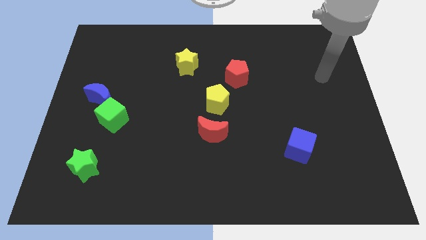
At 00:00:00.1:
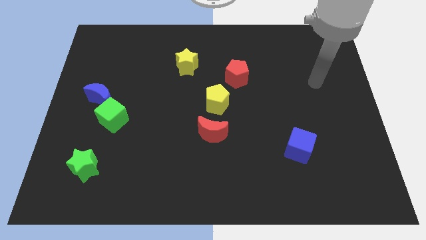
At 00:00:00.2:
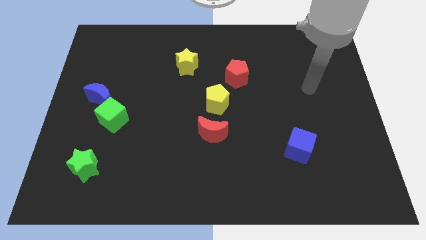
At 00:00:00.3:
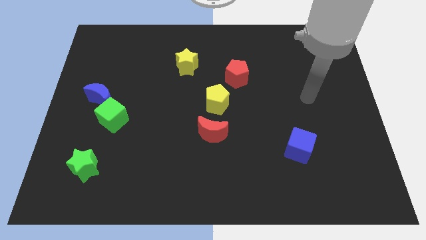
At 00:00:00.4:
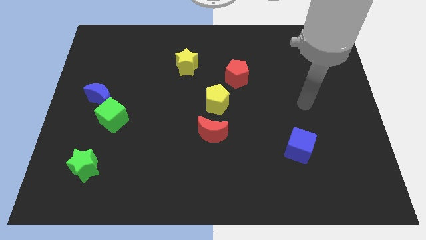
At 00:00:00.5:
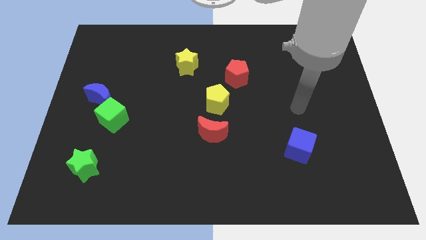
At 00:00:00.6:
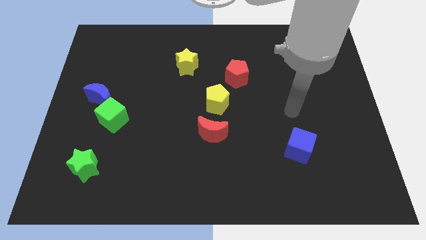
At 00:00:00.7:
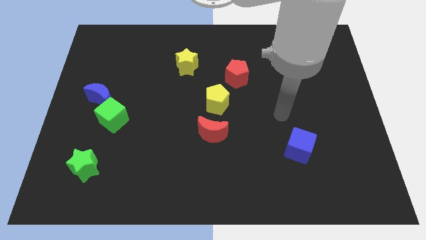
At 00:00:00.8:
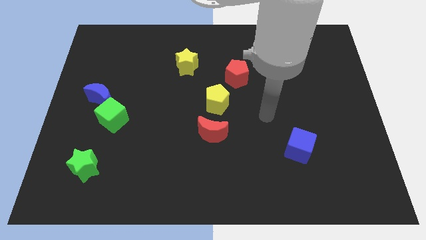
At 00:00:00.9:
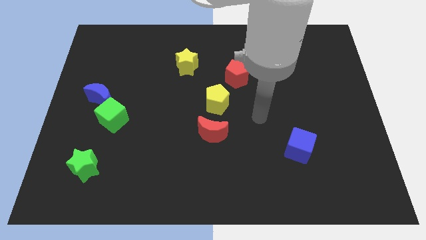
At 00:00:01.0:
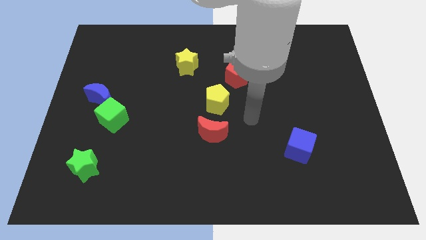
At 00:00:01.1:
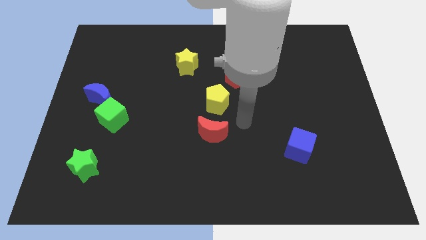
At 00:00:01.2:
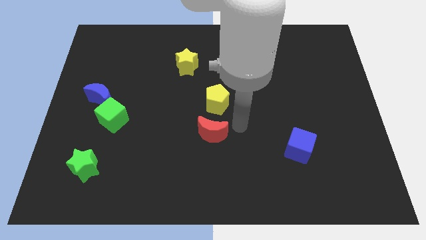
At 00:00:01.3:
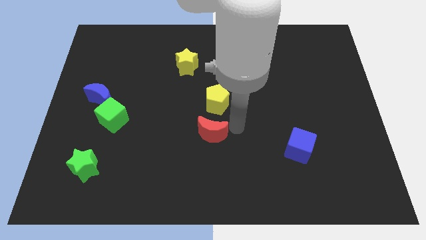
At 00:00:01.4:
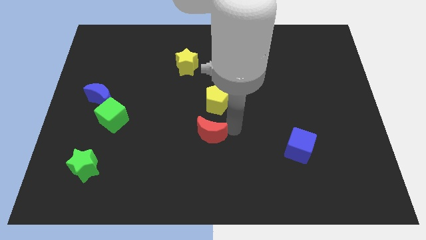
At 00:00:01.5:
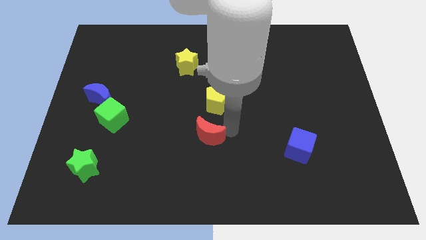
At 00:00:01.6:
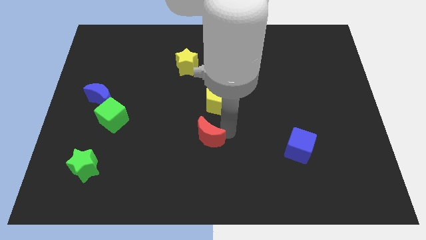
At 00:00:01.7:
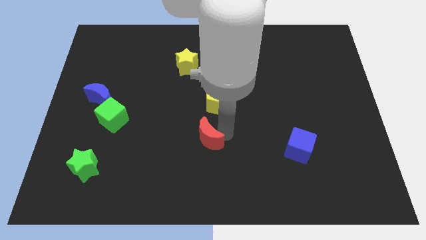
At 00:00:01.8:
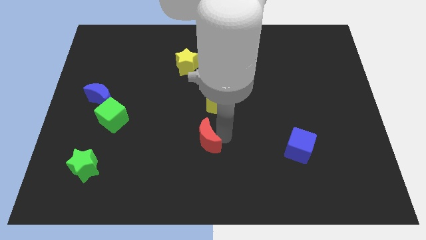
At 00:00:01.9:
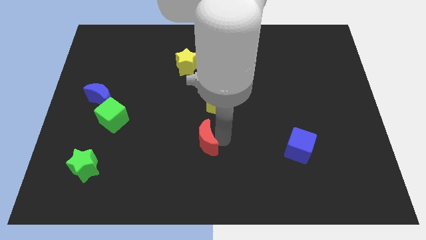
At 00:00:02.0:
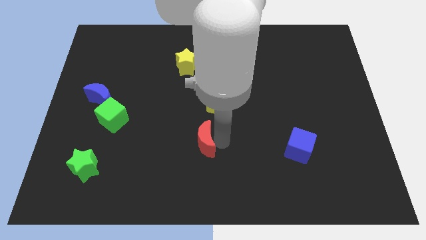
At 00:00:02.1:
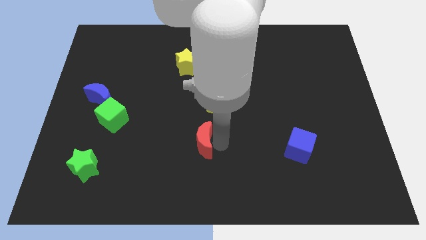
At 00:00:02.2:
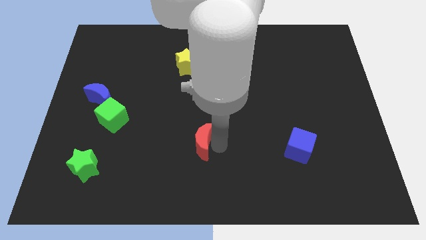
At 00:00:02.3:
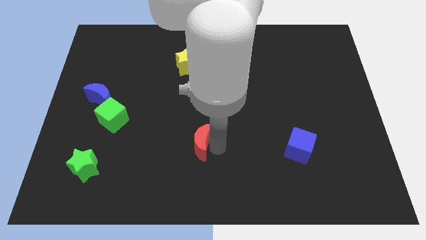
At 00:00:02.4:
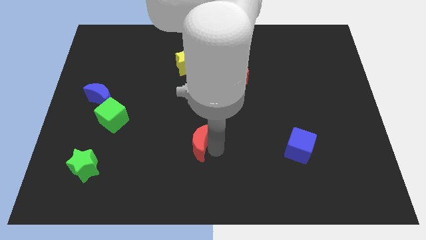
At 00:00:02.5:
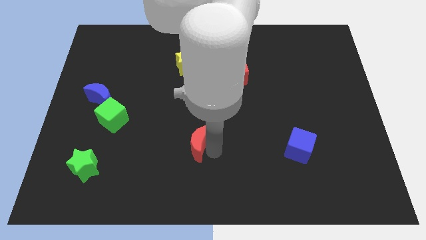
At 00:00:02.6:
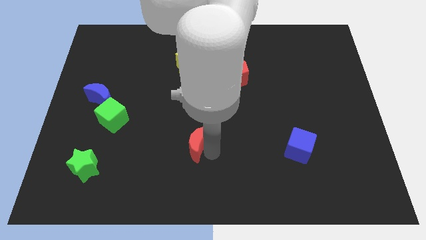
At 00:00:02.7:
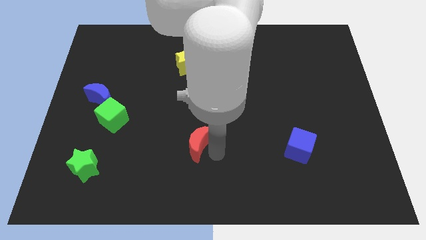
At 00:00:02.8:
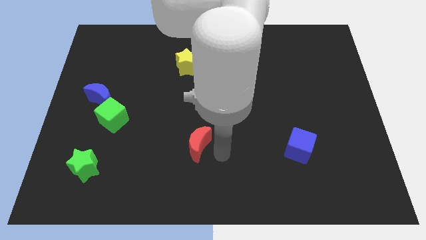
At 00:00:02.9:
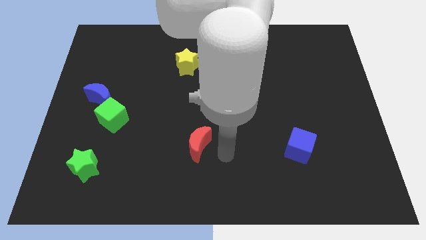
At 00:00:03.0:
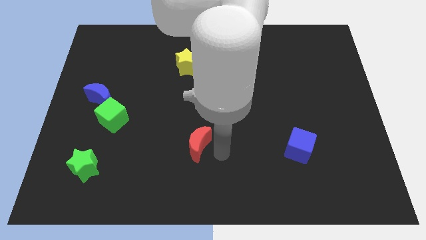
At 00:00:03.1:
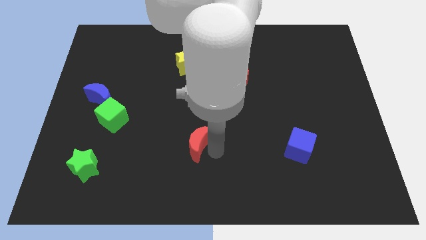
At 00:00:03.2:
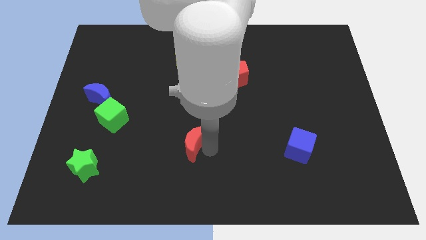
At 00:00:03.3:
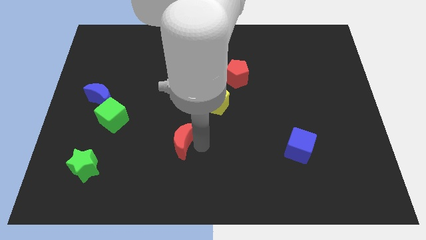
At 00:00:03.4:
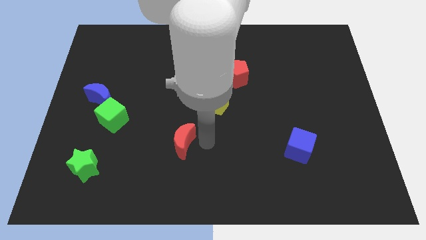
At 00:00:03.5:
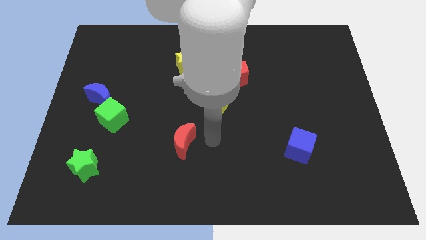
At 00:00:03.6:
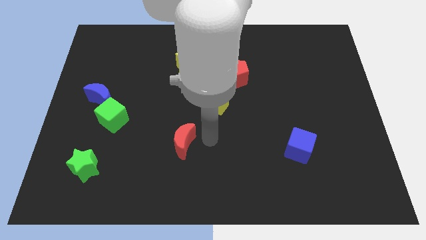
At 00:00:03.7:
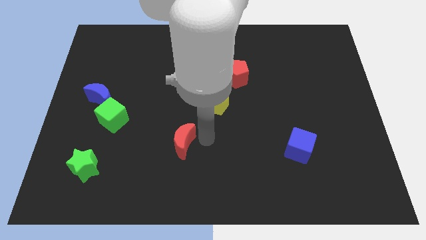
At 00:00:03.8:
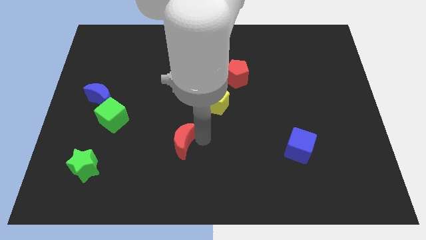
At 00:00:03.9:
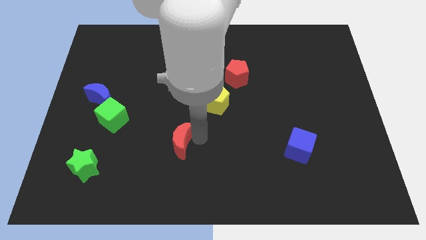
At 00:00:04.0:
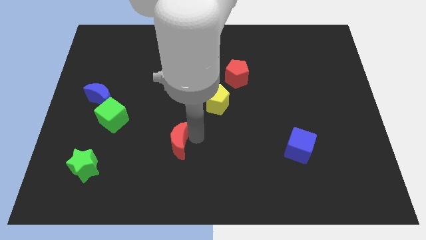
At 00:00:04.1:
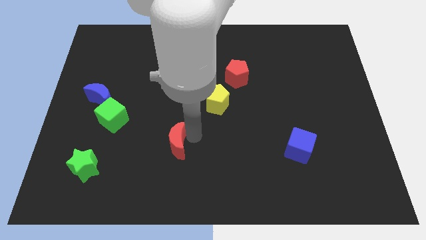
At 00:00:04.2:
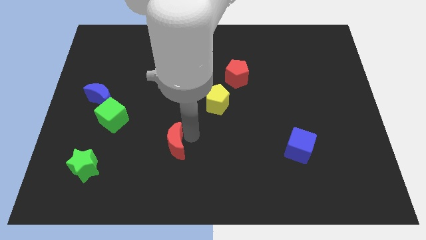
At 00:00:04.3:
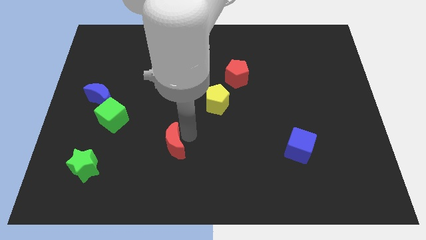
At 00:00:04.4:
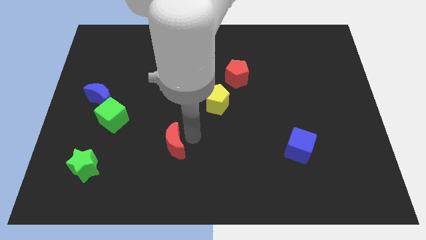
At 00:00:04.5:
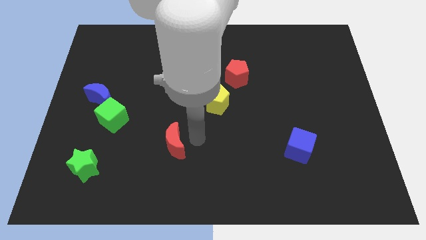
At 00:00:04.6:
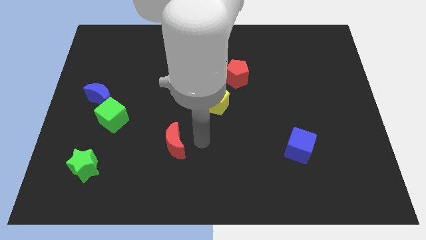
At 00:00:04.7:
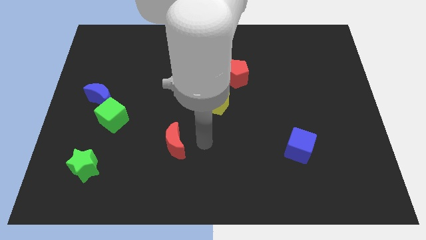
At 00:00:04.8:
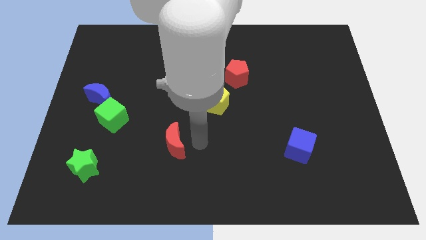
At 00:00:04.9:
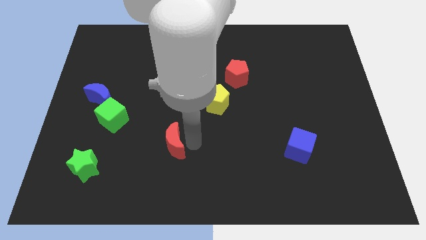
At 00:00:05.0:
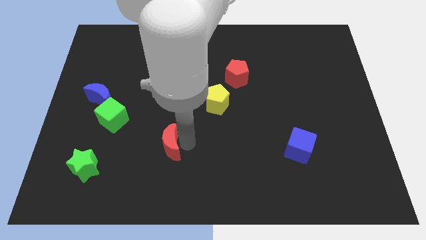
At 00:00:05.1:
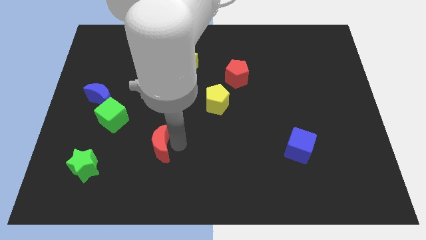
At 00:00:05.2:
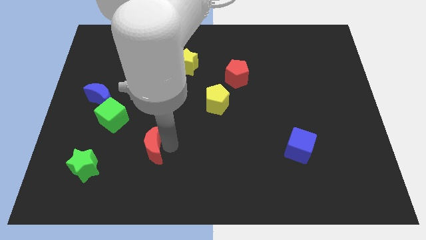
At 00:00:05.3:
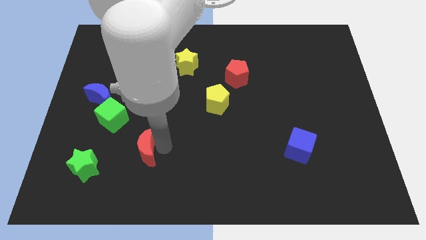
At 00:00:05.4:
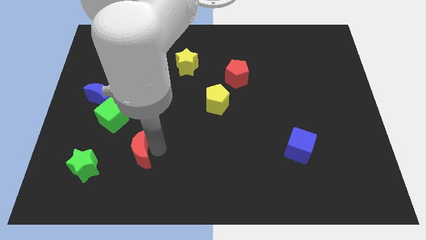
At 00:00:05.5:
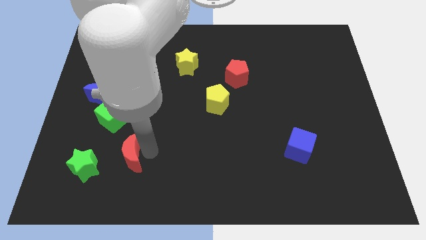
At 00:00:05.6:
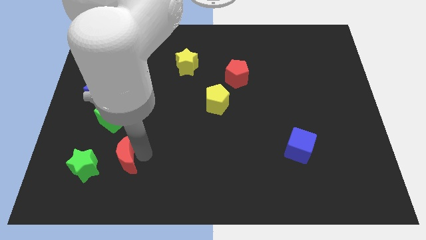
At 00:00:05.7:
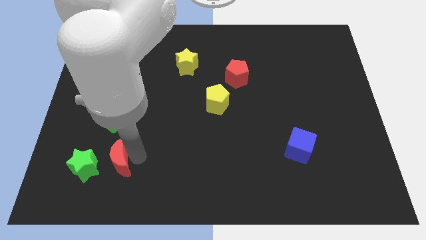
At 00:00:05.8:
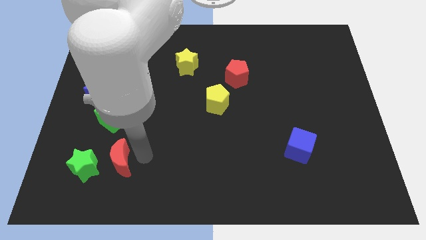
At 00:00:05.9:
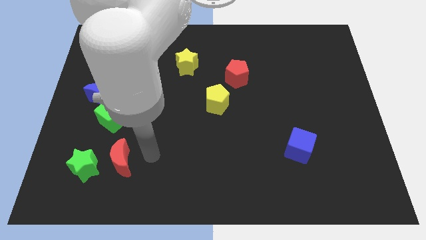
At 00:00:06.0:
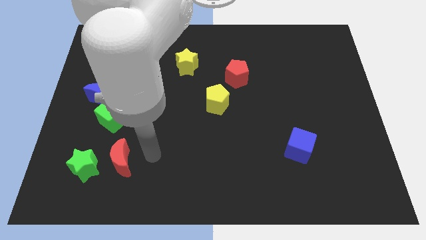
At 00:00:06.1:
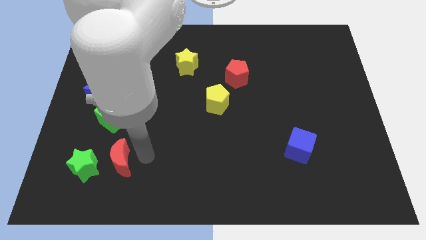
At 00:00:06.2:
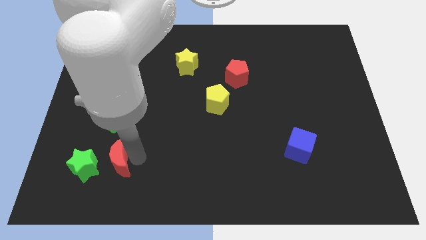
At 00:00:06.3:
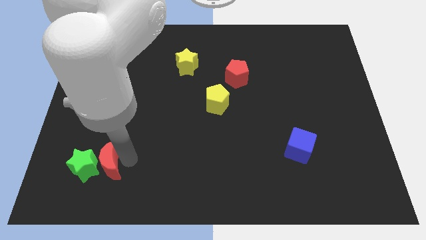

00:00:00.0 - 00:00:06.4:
move the red moon next to the green star
